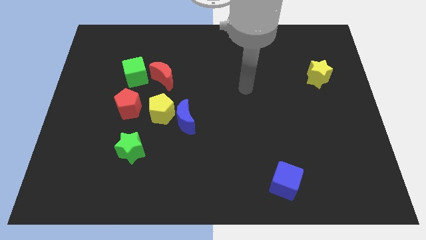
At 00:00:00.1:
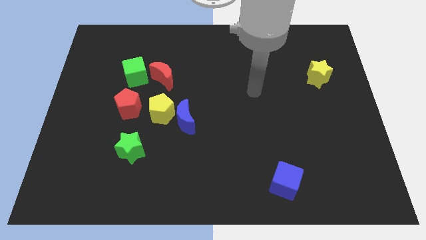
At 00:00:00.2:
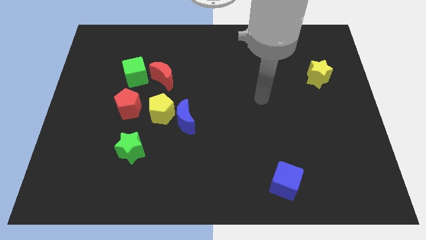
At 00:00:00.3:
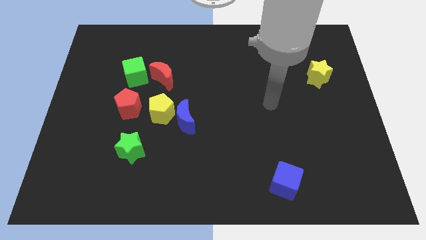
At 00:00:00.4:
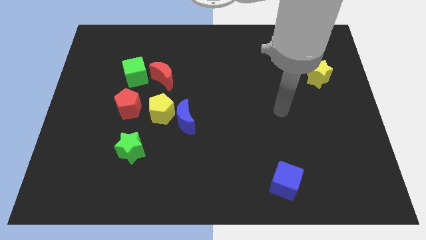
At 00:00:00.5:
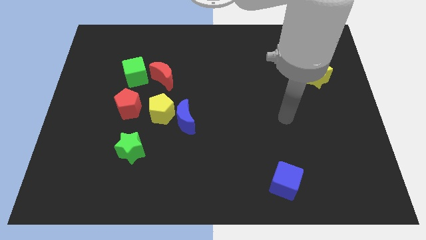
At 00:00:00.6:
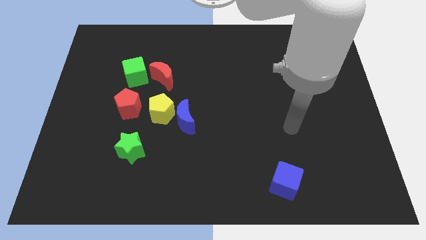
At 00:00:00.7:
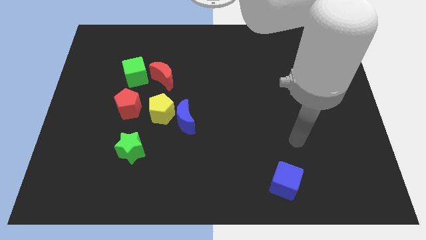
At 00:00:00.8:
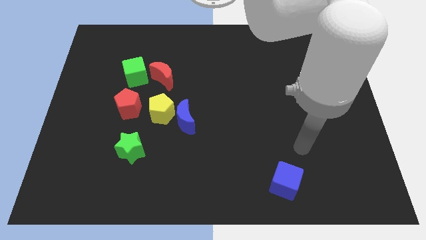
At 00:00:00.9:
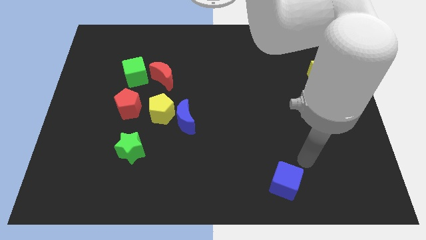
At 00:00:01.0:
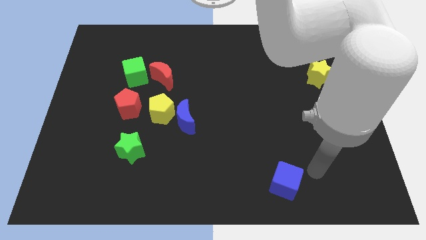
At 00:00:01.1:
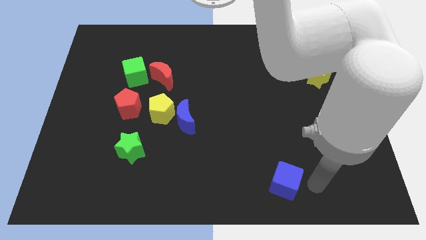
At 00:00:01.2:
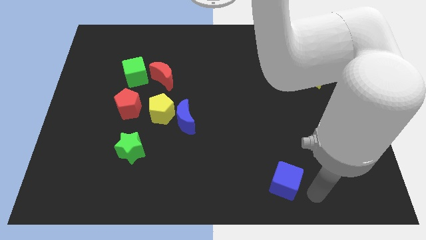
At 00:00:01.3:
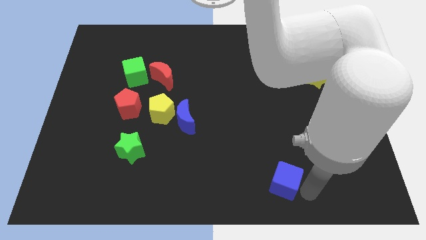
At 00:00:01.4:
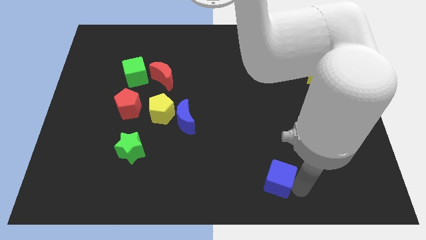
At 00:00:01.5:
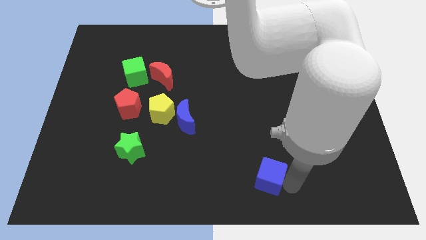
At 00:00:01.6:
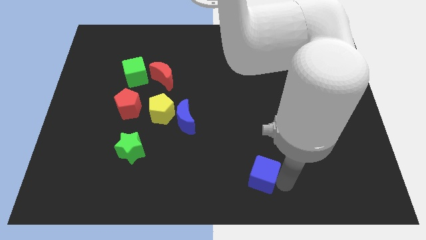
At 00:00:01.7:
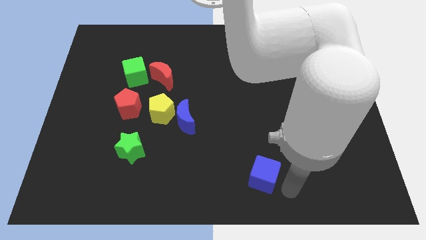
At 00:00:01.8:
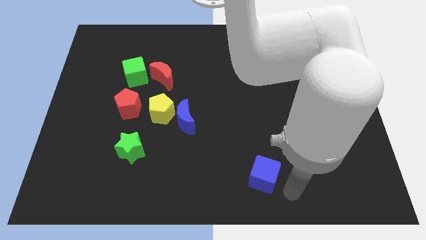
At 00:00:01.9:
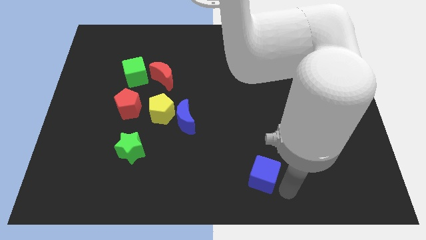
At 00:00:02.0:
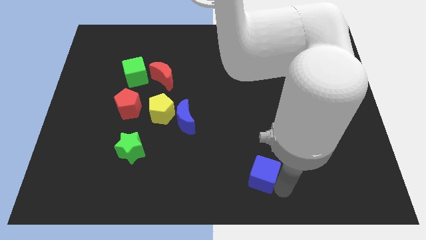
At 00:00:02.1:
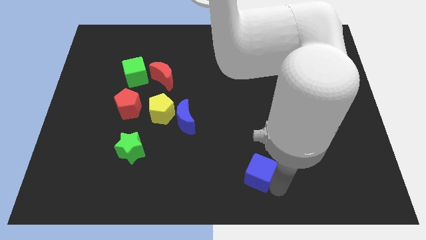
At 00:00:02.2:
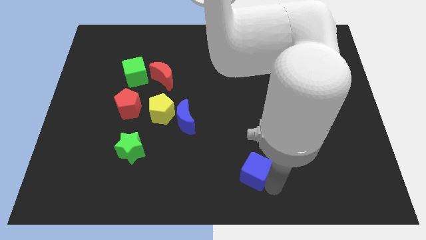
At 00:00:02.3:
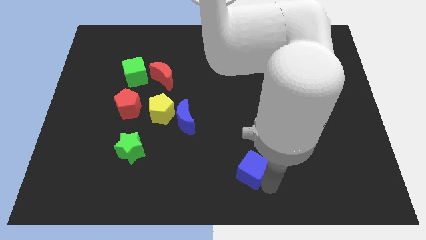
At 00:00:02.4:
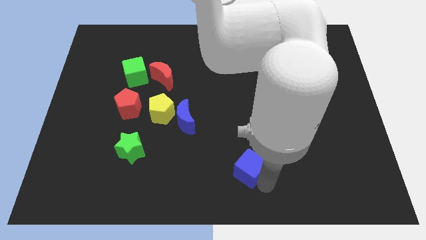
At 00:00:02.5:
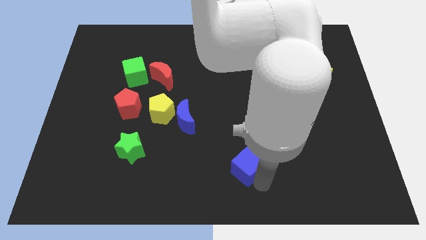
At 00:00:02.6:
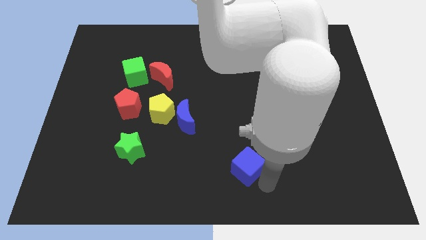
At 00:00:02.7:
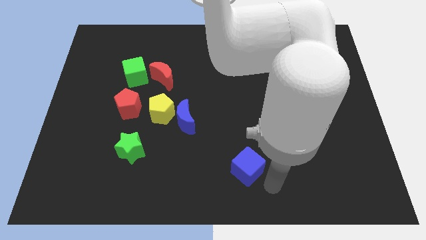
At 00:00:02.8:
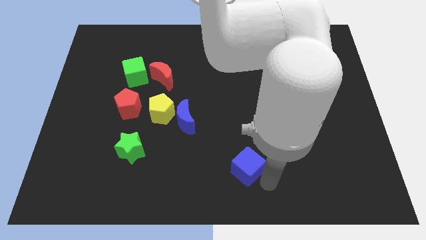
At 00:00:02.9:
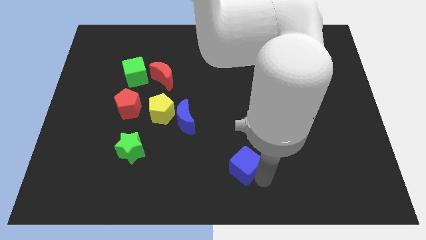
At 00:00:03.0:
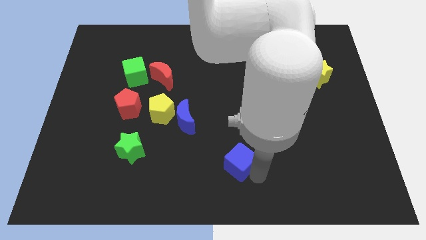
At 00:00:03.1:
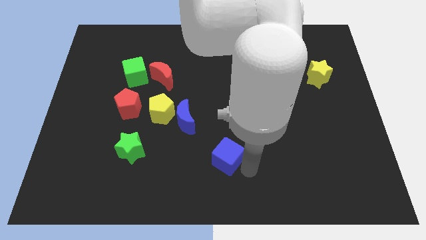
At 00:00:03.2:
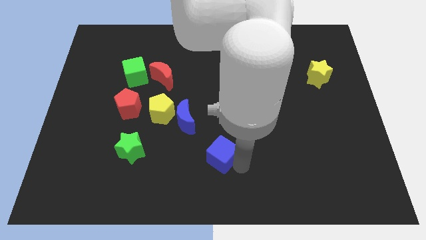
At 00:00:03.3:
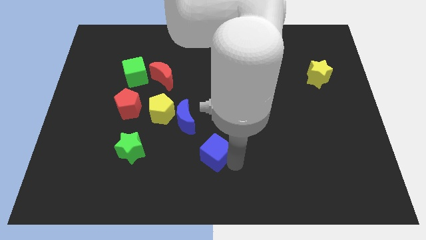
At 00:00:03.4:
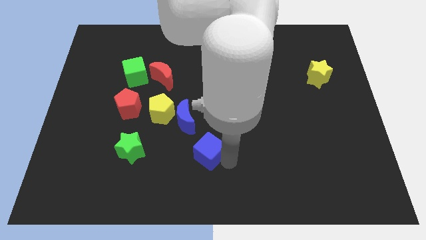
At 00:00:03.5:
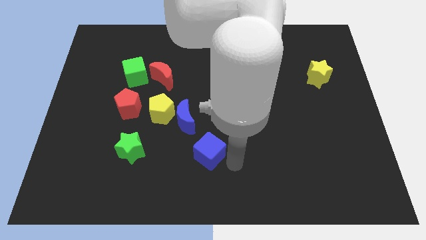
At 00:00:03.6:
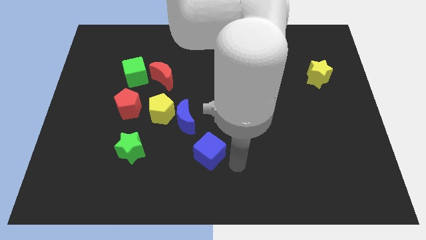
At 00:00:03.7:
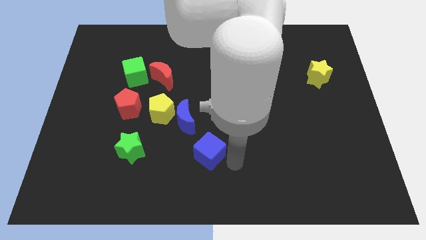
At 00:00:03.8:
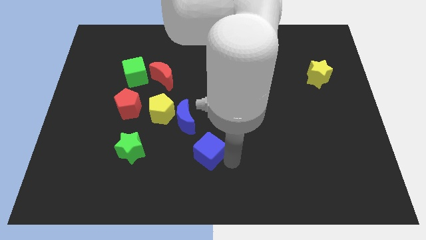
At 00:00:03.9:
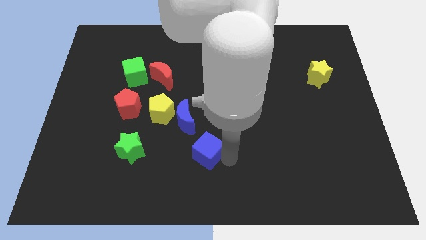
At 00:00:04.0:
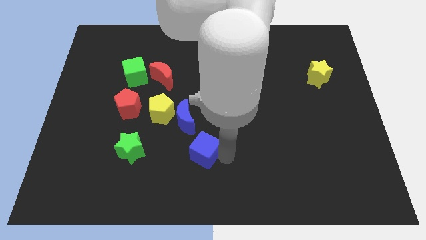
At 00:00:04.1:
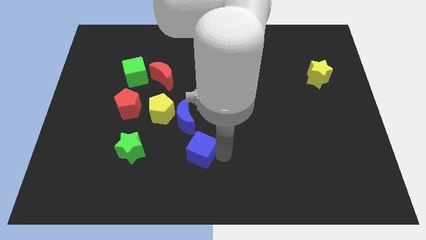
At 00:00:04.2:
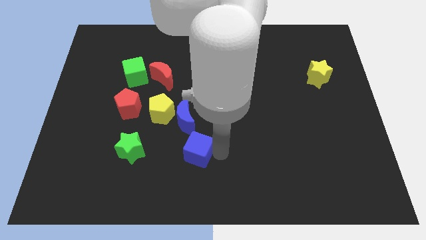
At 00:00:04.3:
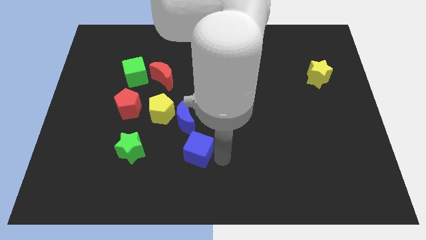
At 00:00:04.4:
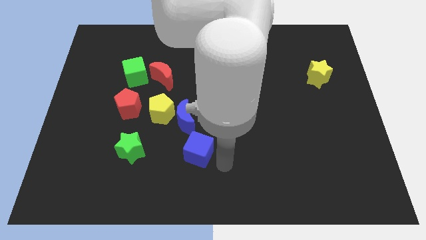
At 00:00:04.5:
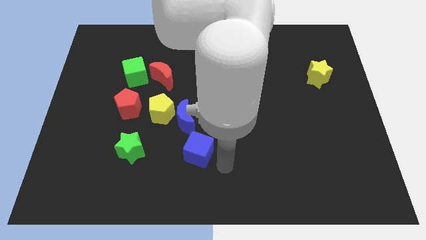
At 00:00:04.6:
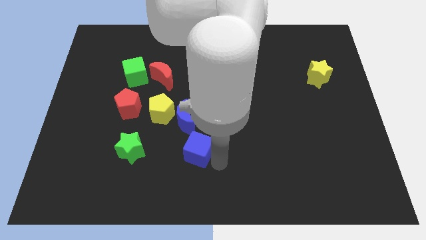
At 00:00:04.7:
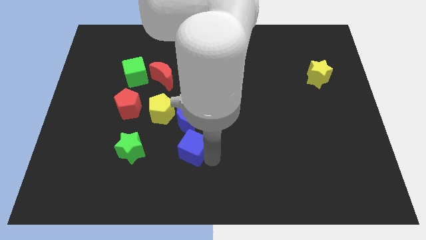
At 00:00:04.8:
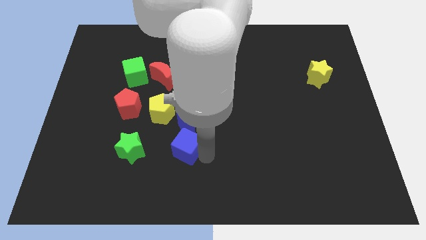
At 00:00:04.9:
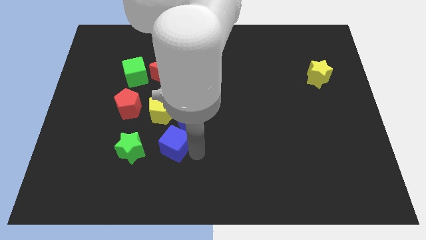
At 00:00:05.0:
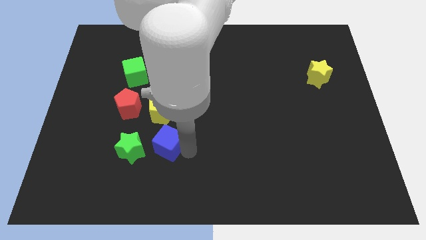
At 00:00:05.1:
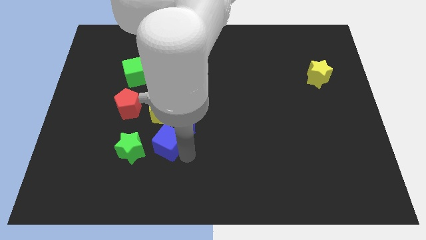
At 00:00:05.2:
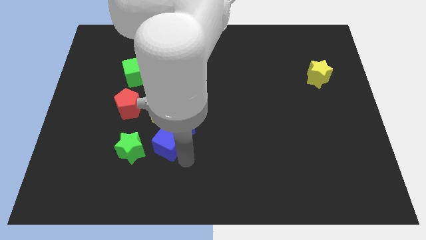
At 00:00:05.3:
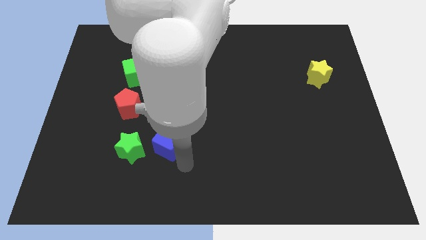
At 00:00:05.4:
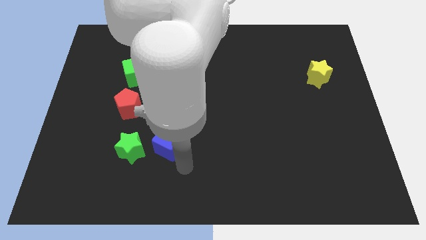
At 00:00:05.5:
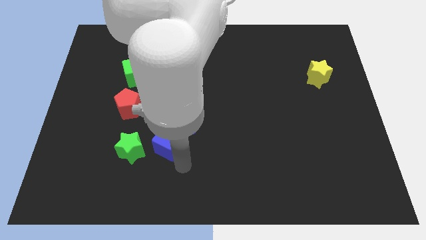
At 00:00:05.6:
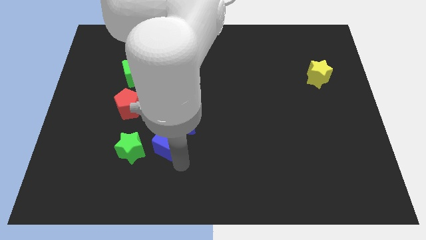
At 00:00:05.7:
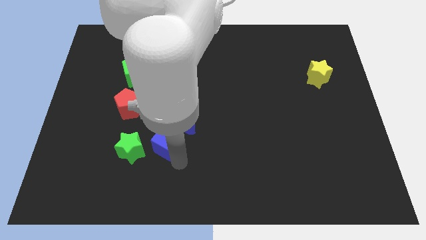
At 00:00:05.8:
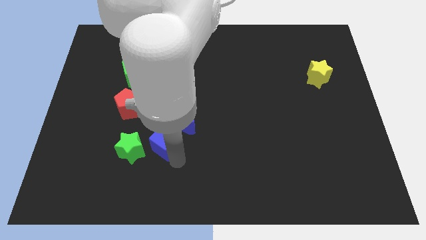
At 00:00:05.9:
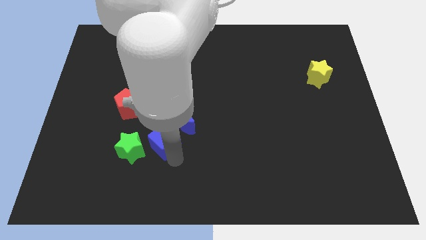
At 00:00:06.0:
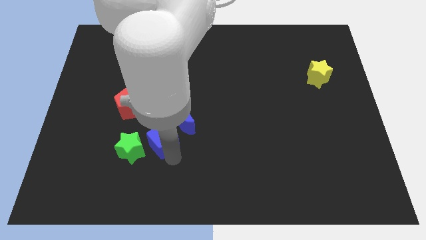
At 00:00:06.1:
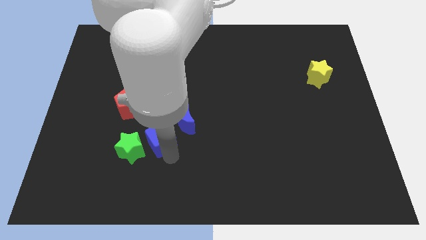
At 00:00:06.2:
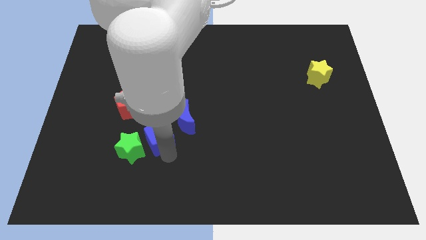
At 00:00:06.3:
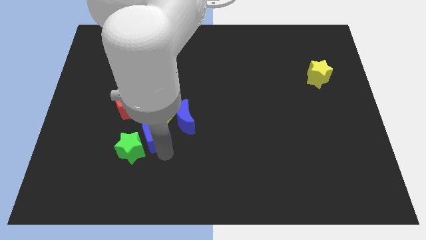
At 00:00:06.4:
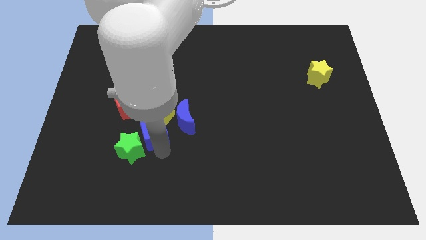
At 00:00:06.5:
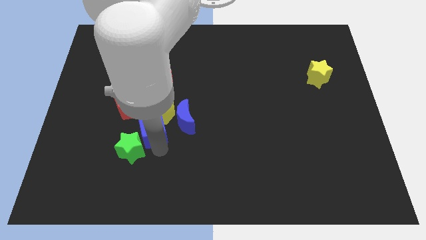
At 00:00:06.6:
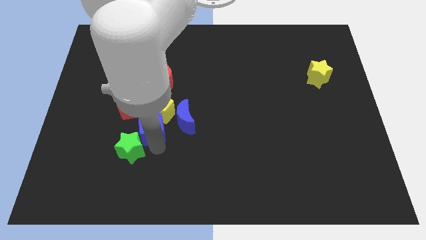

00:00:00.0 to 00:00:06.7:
move the blue cube to the bottom side of the red moon
